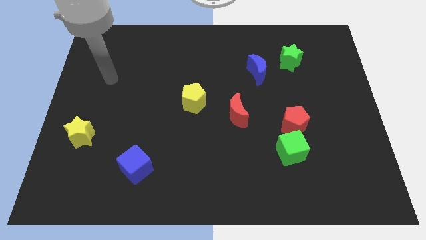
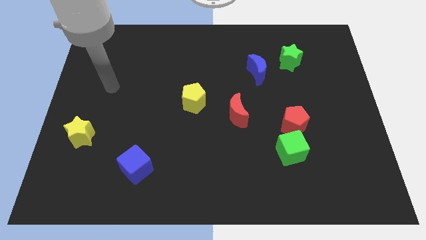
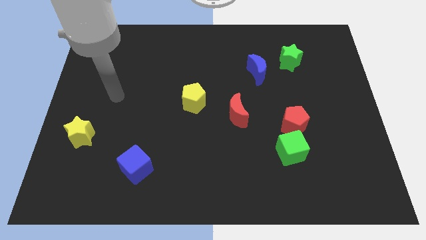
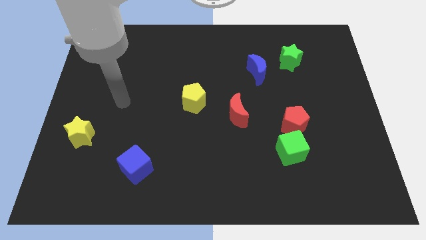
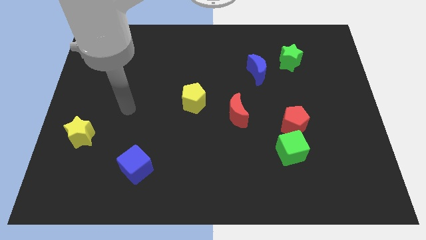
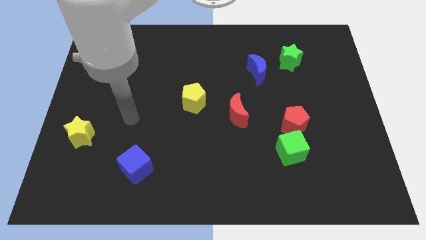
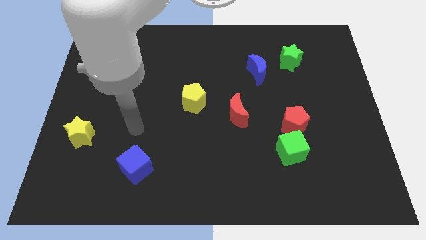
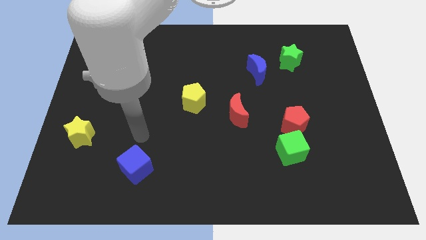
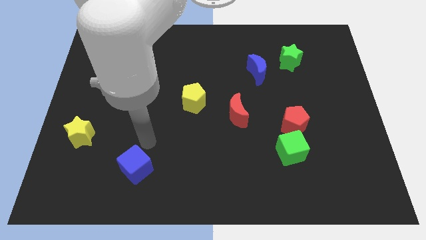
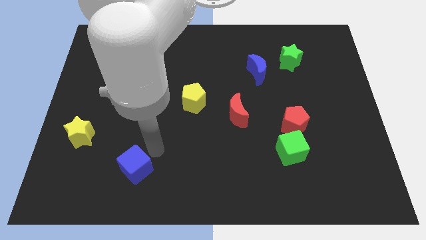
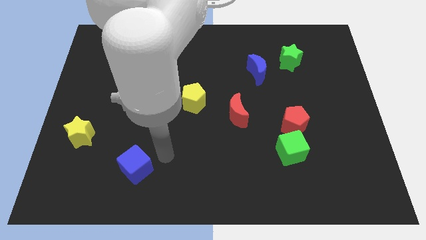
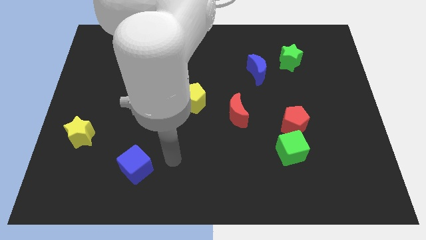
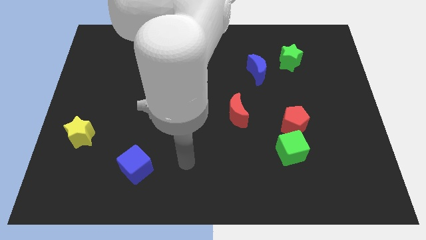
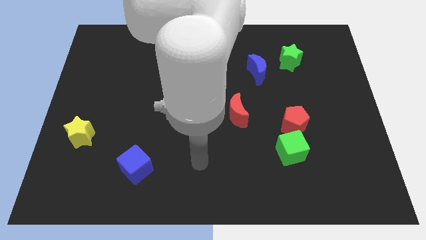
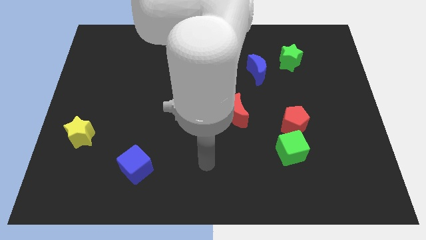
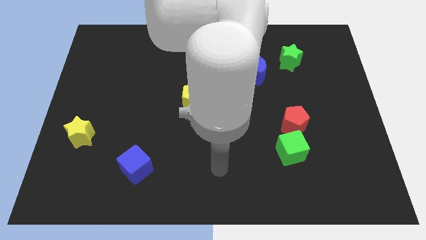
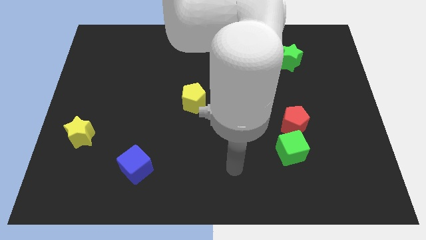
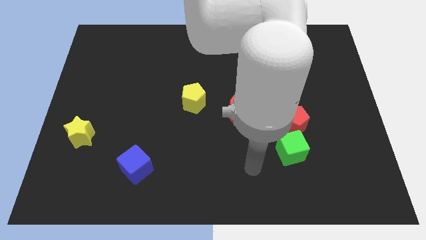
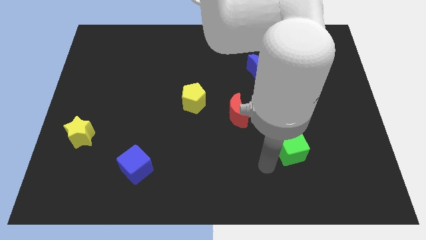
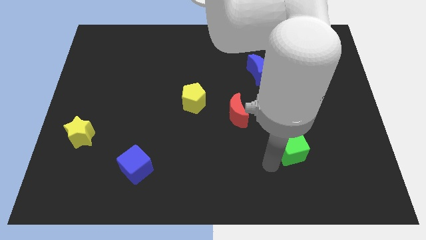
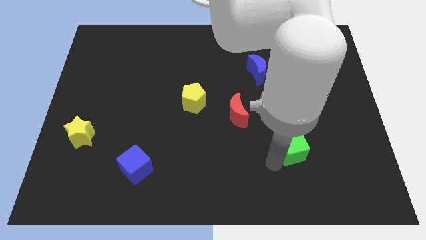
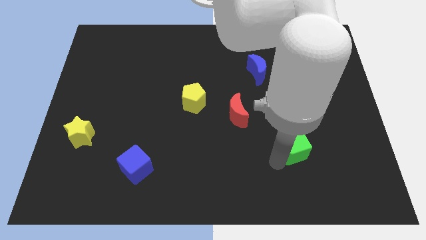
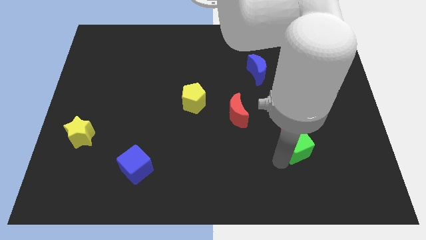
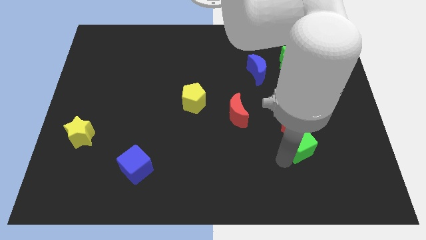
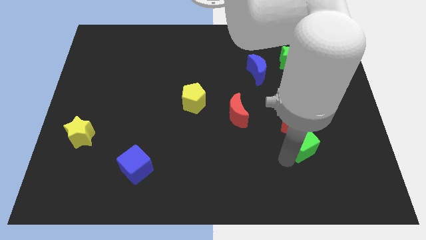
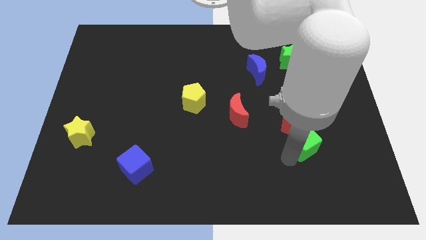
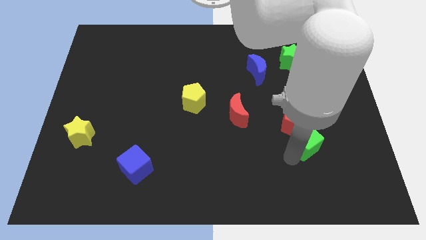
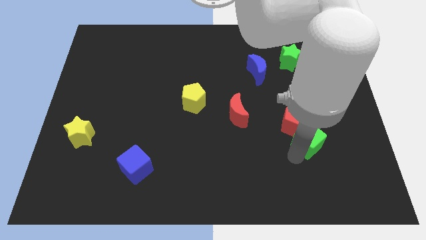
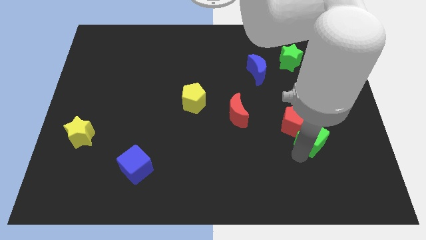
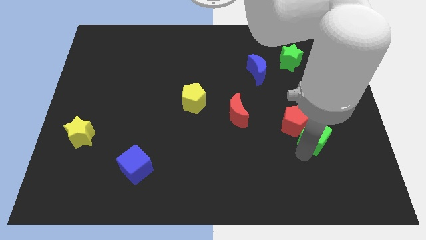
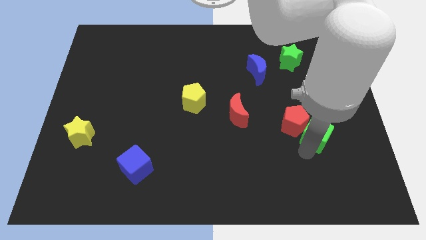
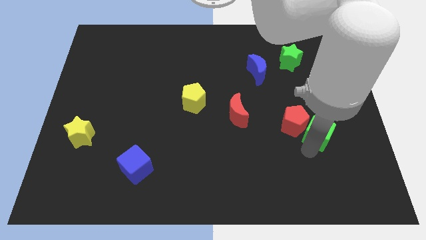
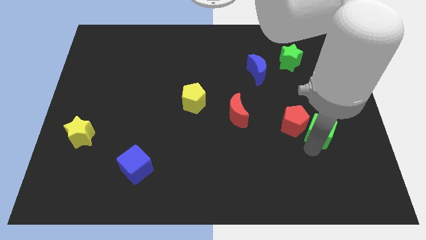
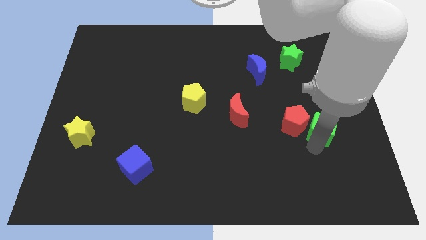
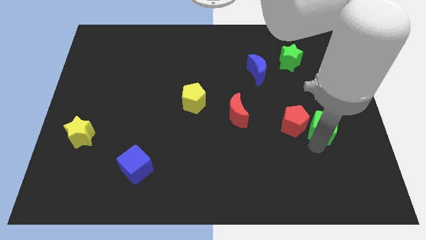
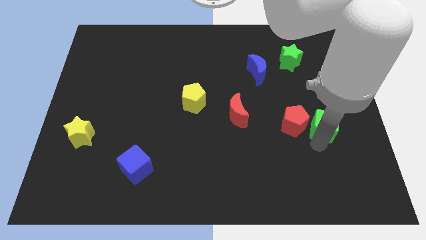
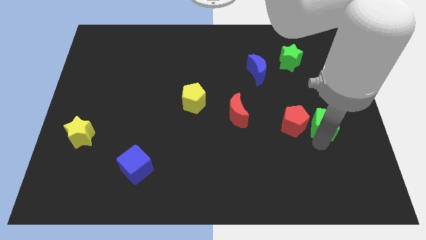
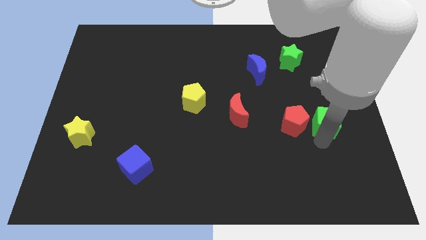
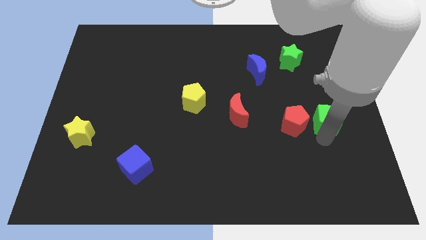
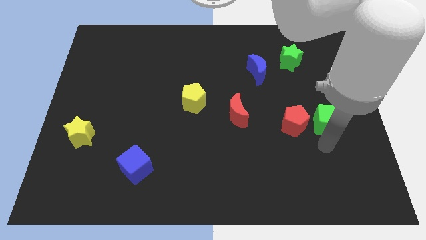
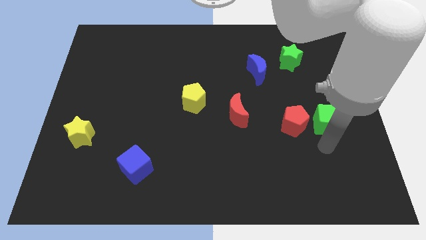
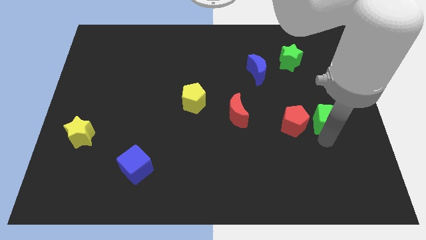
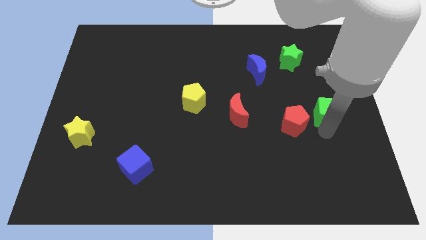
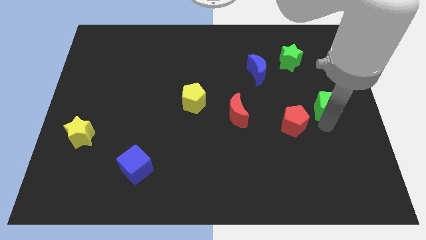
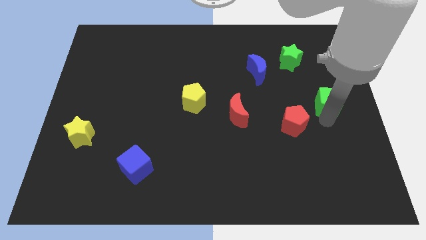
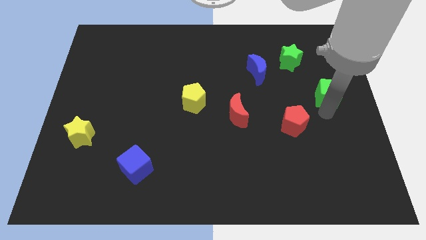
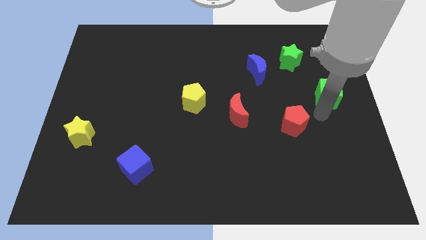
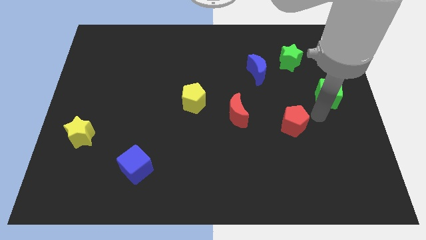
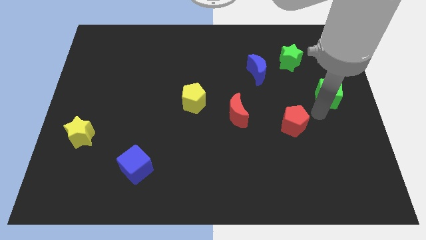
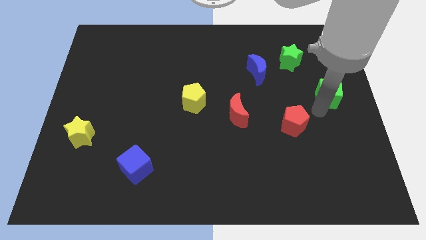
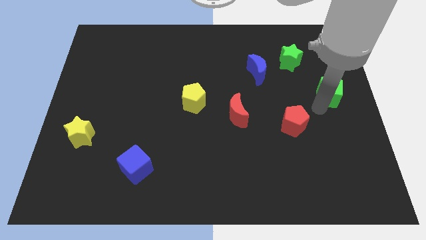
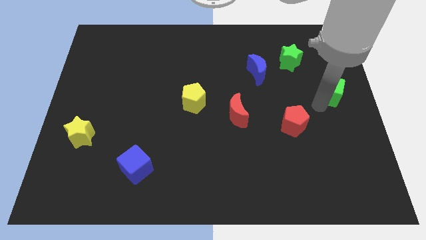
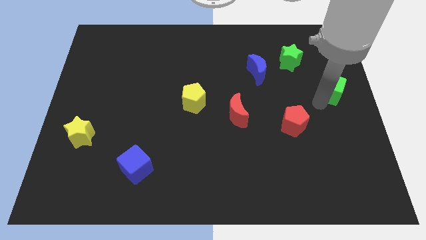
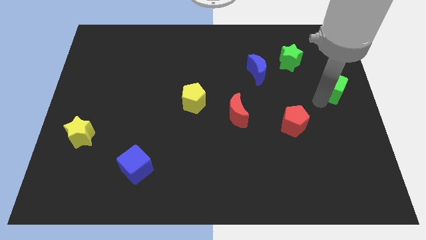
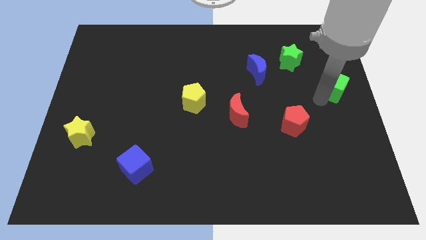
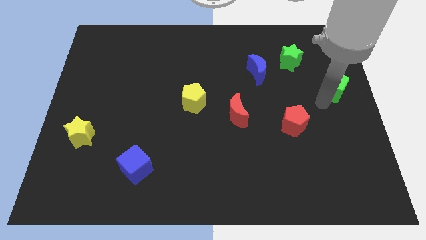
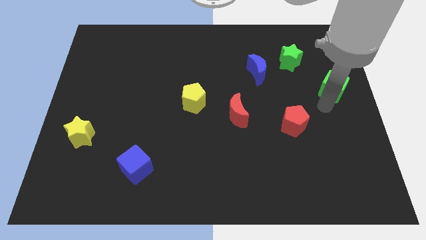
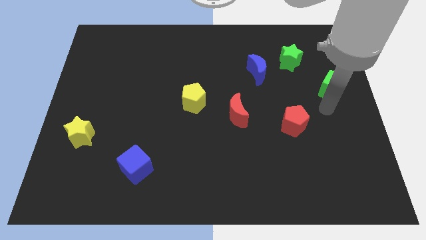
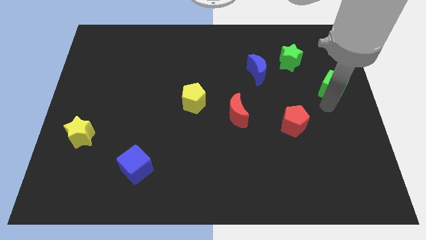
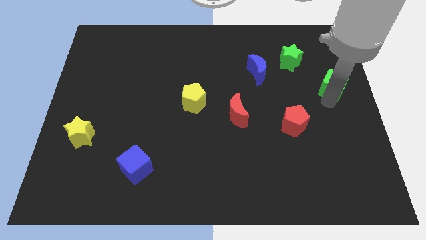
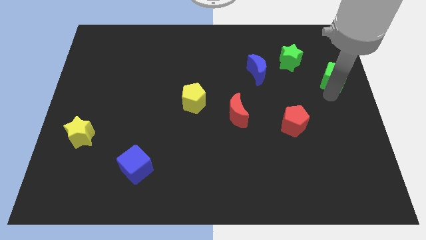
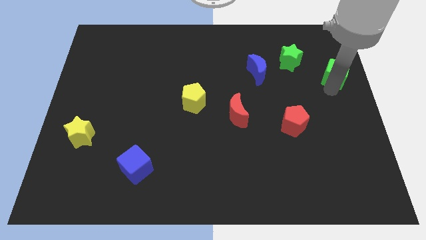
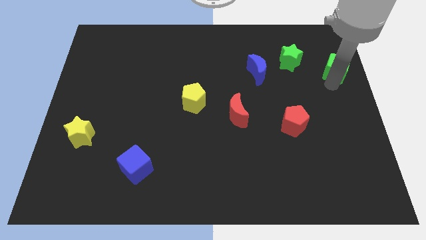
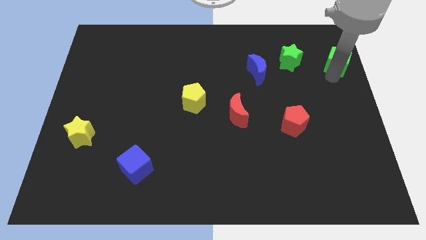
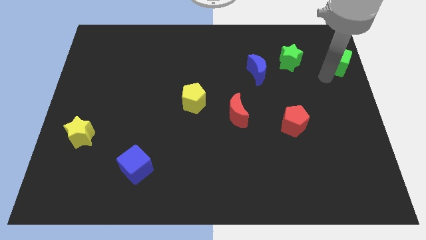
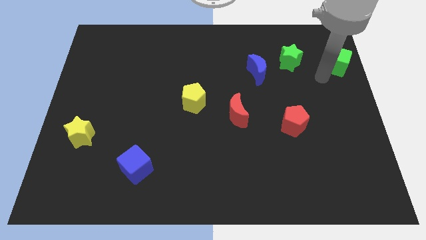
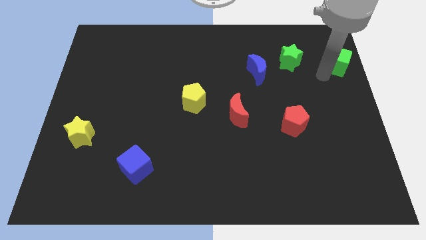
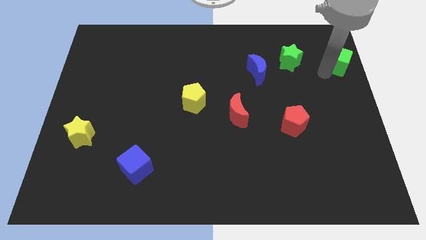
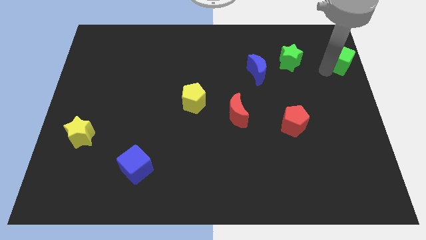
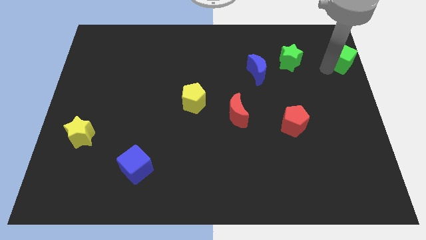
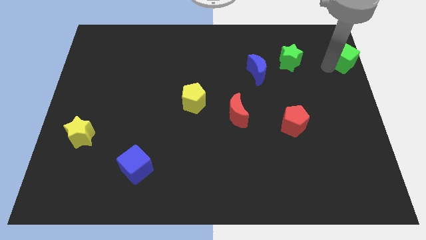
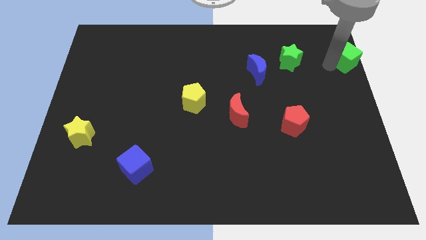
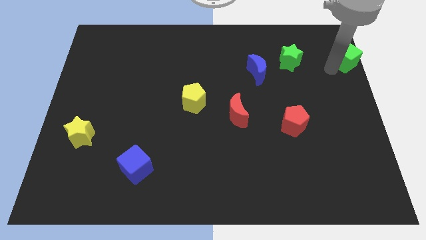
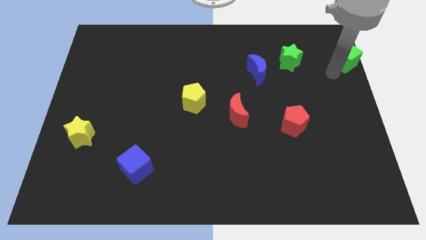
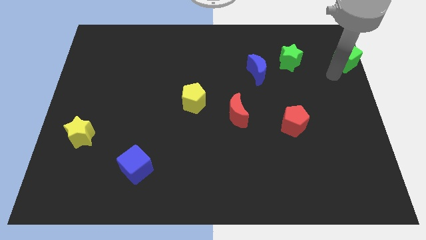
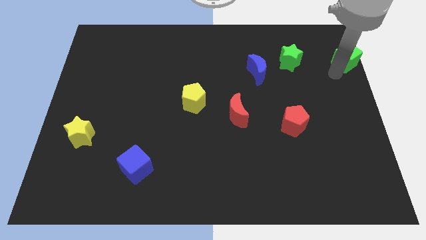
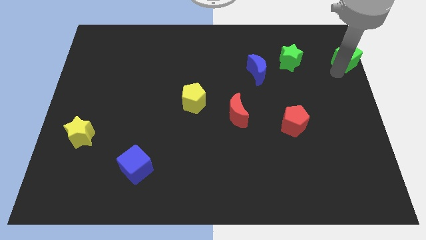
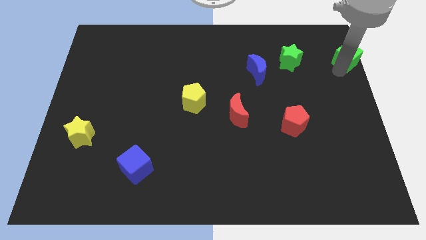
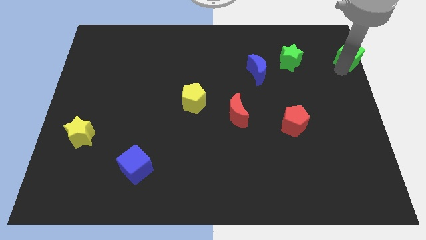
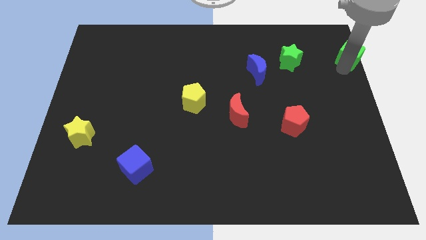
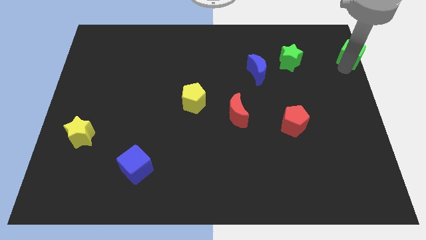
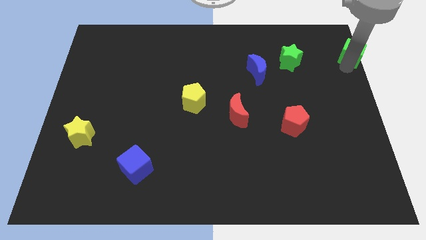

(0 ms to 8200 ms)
slide the green cube to the top right of the board
